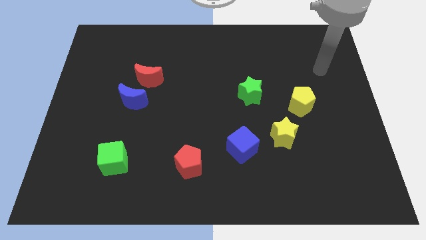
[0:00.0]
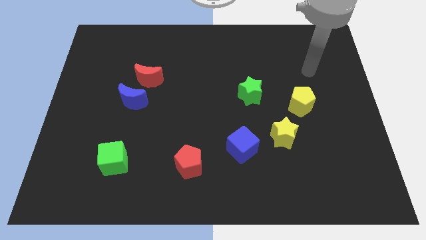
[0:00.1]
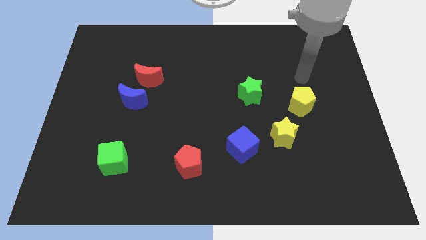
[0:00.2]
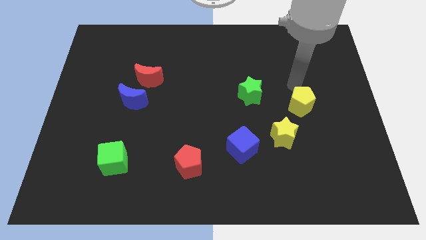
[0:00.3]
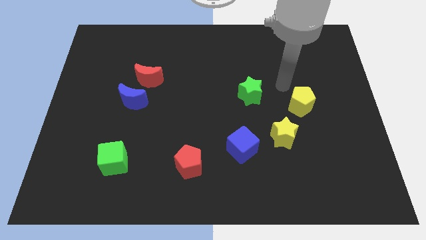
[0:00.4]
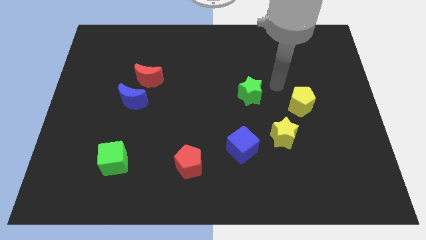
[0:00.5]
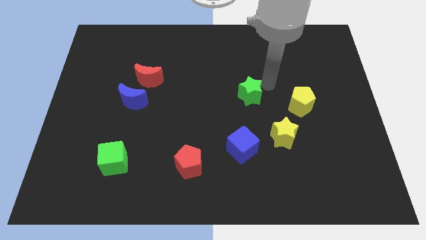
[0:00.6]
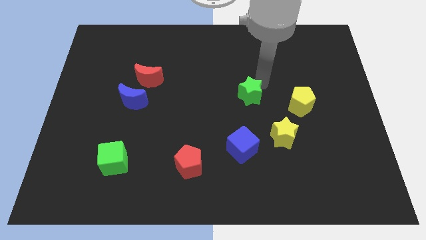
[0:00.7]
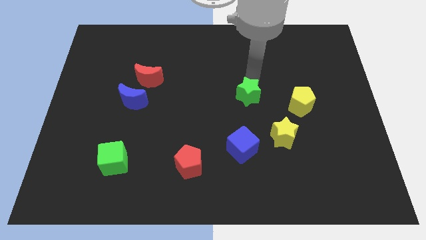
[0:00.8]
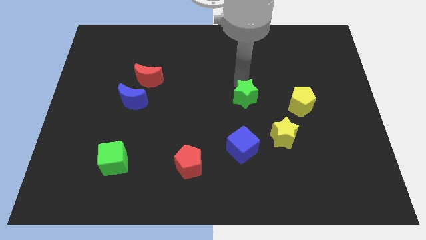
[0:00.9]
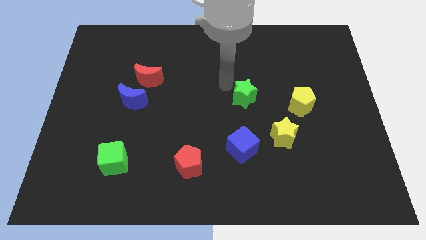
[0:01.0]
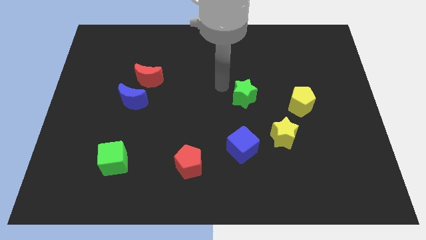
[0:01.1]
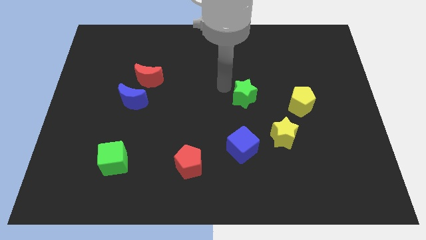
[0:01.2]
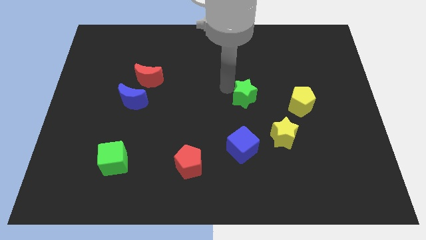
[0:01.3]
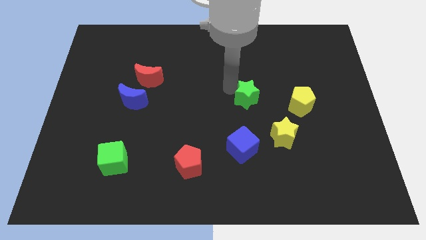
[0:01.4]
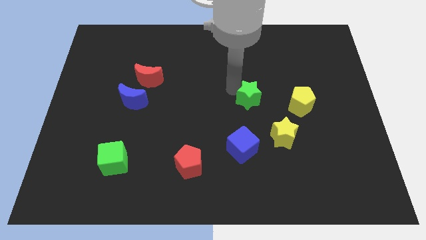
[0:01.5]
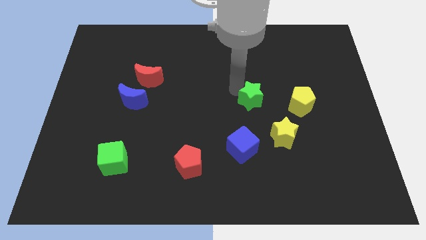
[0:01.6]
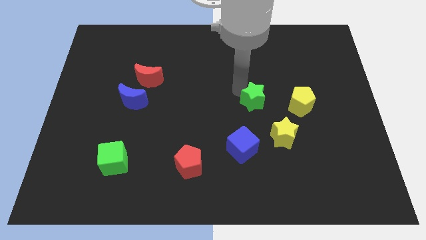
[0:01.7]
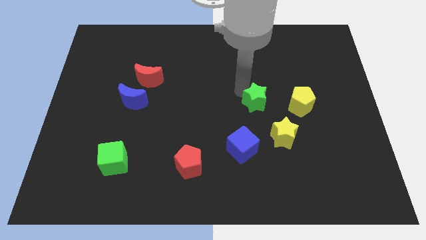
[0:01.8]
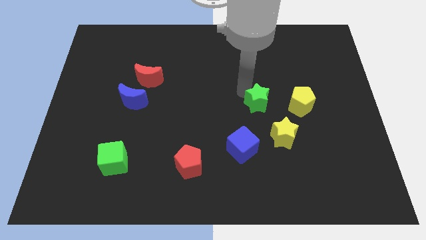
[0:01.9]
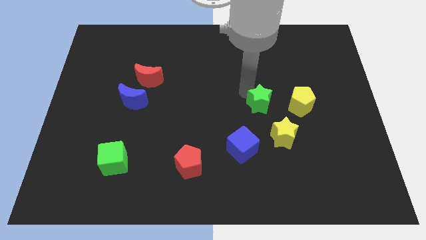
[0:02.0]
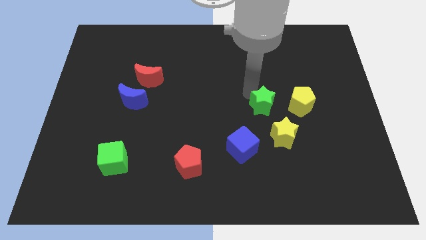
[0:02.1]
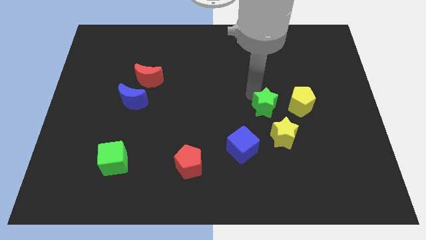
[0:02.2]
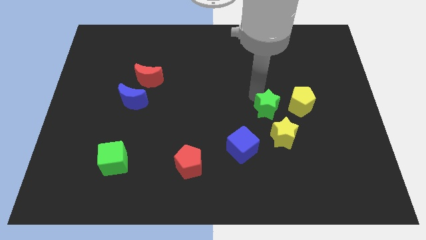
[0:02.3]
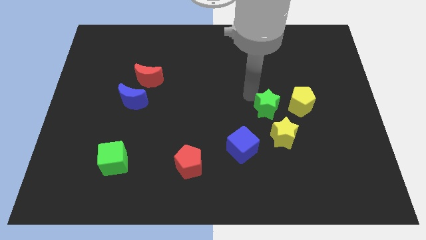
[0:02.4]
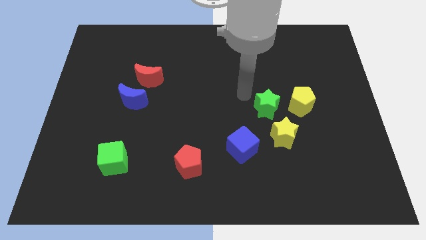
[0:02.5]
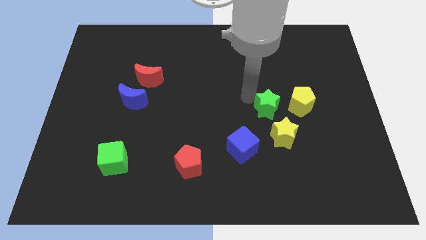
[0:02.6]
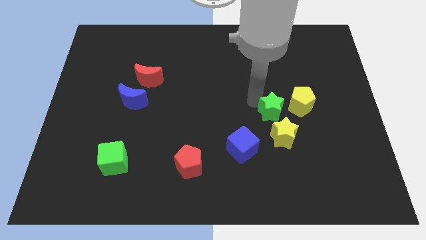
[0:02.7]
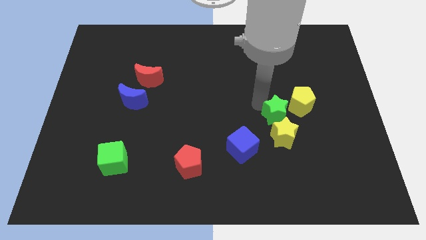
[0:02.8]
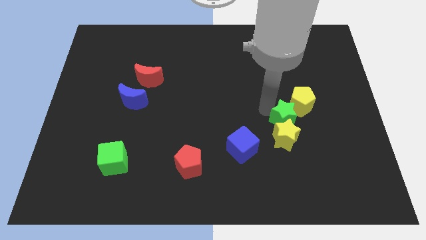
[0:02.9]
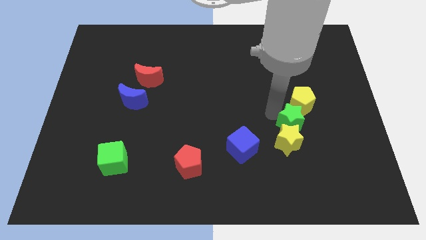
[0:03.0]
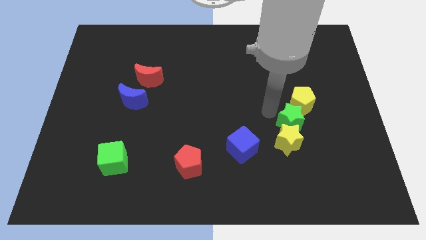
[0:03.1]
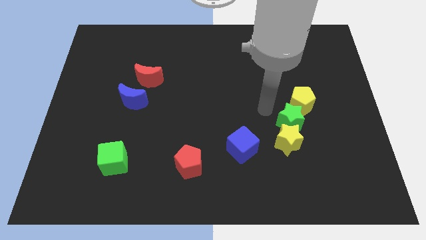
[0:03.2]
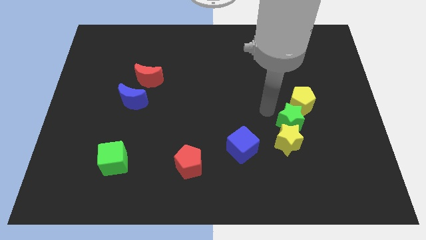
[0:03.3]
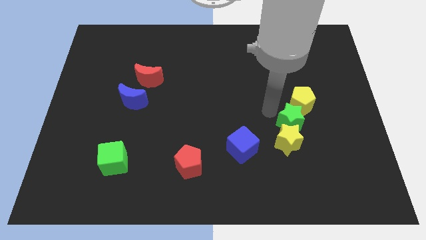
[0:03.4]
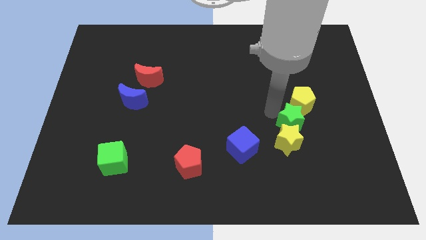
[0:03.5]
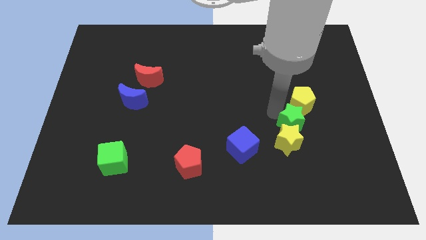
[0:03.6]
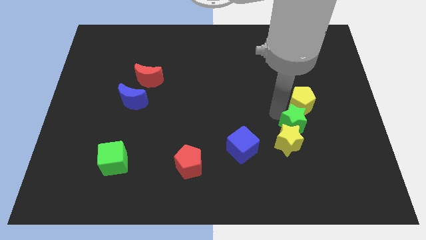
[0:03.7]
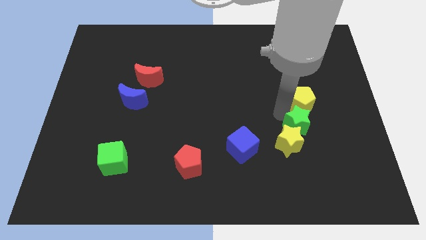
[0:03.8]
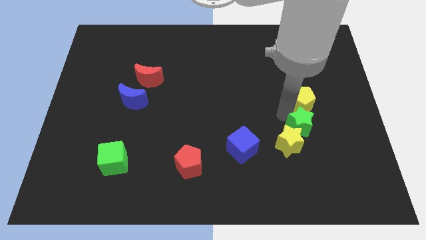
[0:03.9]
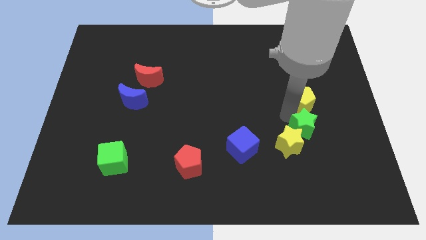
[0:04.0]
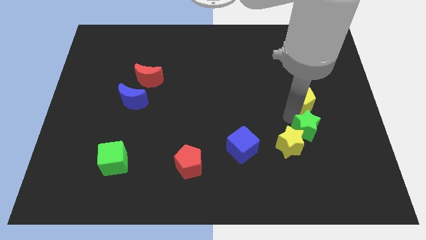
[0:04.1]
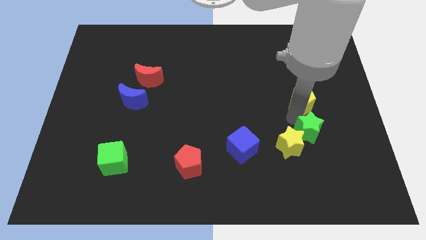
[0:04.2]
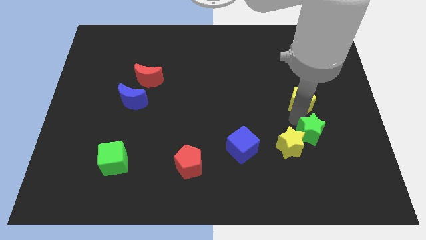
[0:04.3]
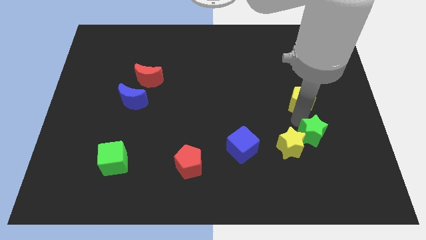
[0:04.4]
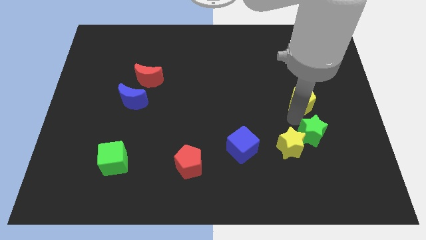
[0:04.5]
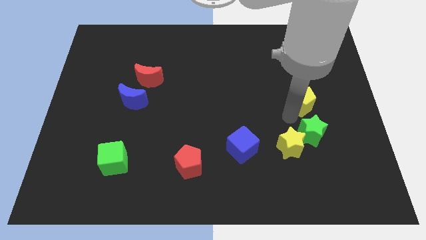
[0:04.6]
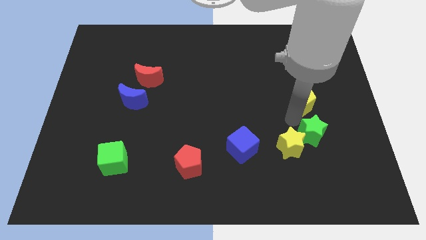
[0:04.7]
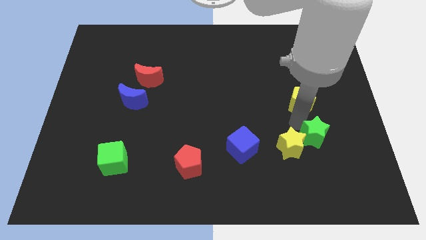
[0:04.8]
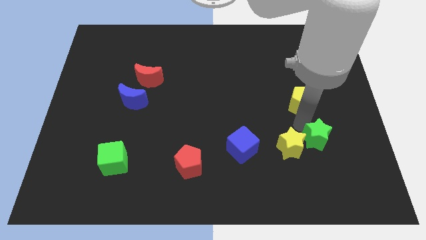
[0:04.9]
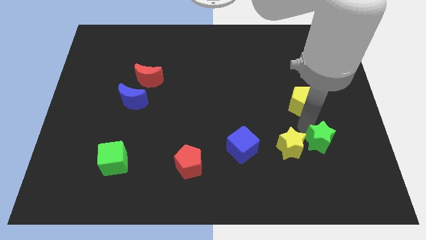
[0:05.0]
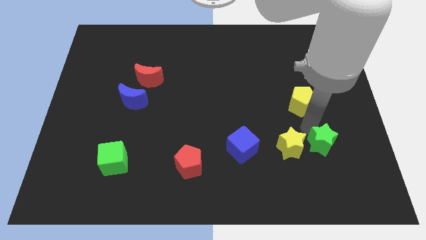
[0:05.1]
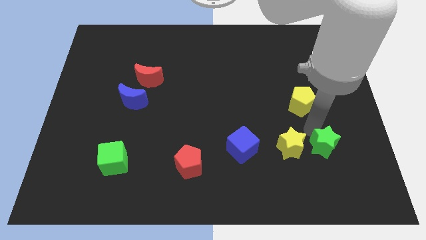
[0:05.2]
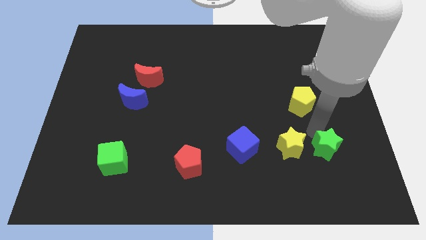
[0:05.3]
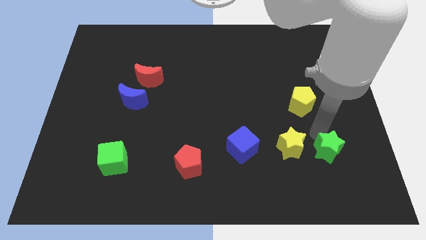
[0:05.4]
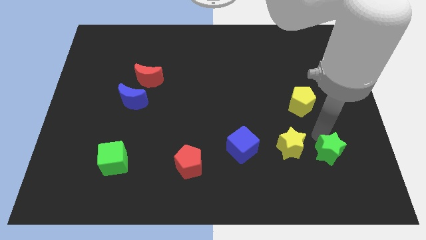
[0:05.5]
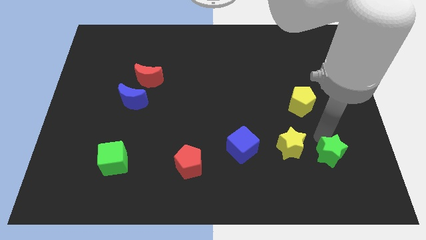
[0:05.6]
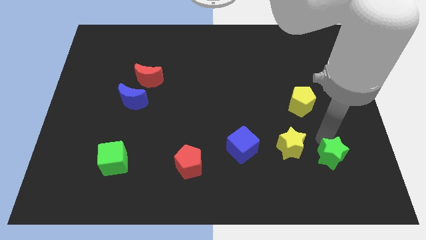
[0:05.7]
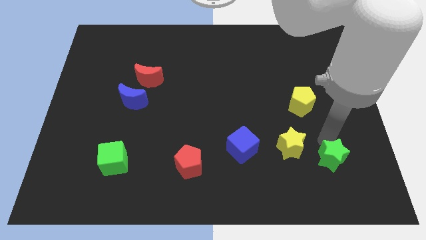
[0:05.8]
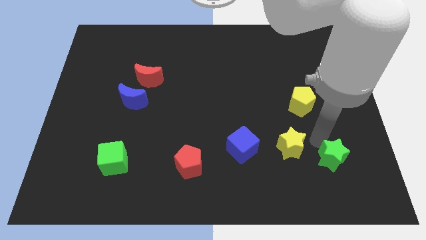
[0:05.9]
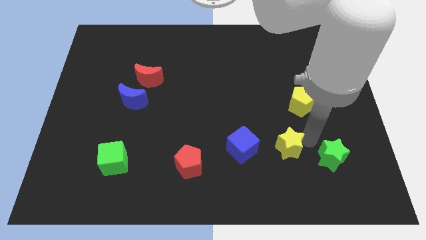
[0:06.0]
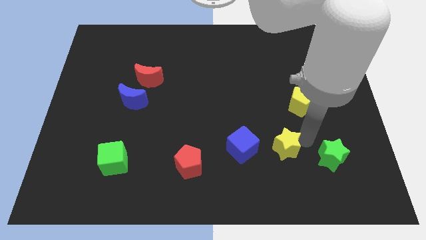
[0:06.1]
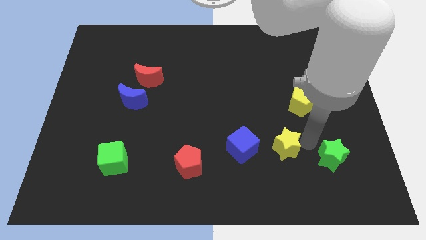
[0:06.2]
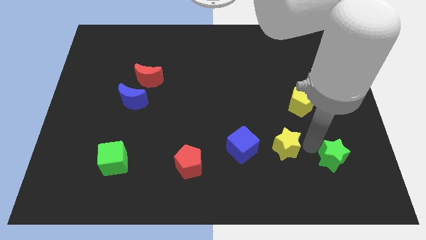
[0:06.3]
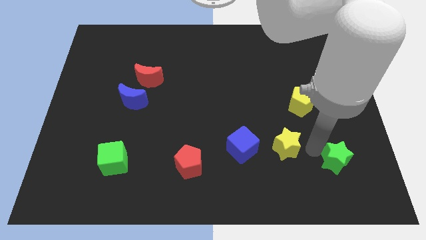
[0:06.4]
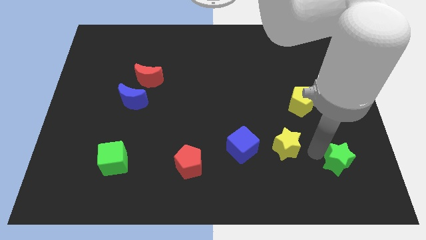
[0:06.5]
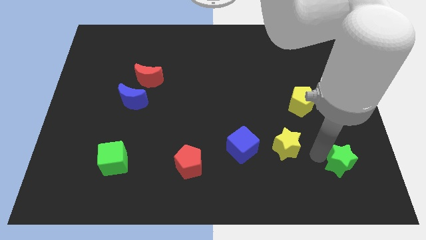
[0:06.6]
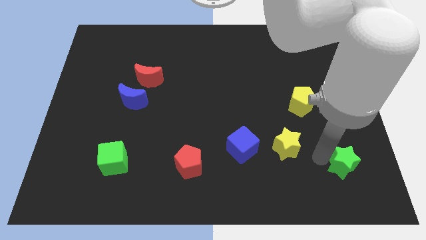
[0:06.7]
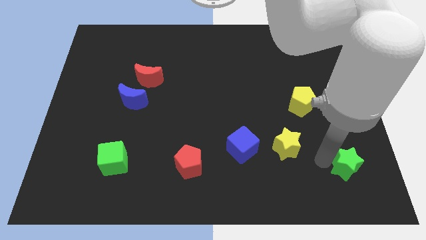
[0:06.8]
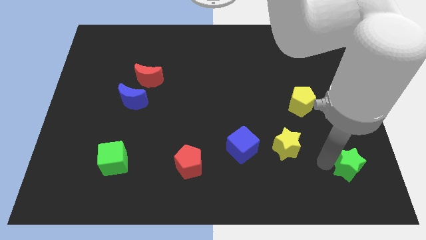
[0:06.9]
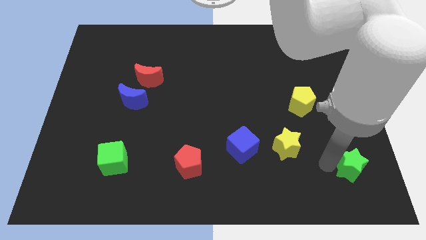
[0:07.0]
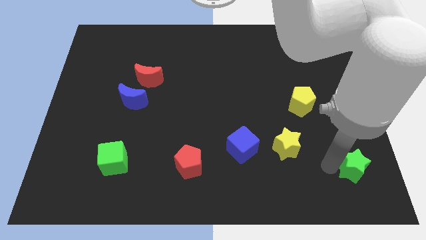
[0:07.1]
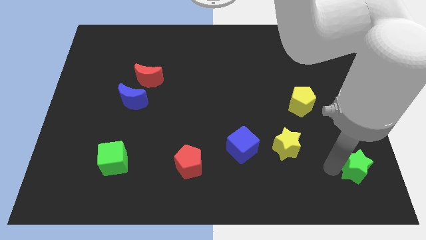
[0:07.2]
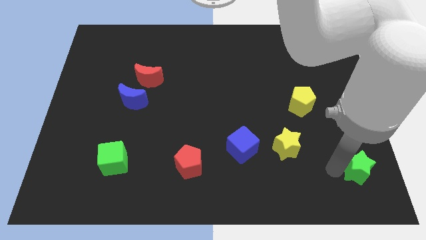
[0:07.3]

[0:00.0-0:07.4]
slide the green star to the bottom right of the board
